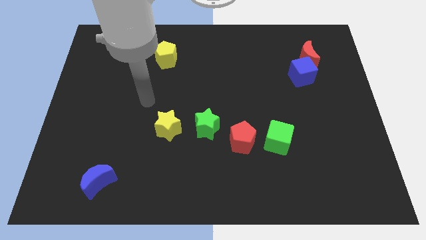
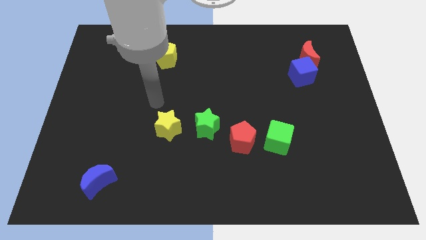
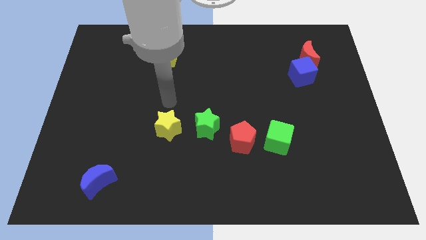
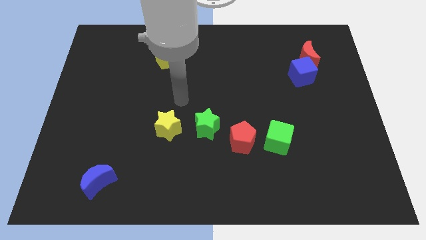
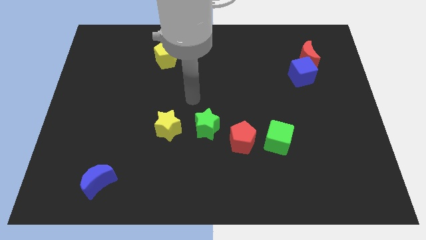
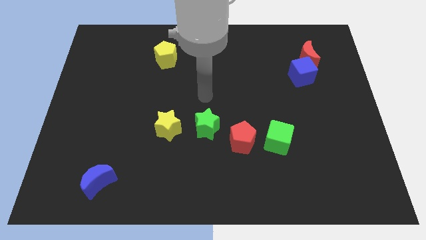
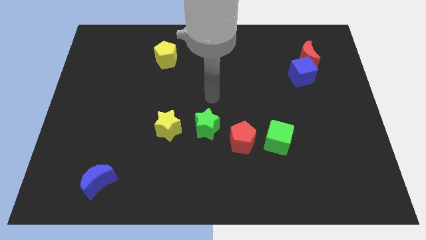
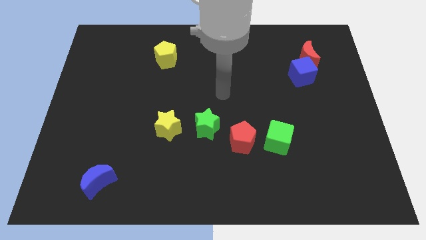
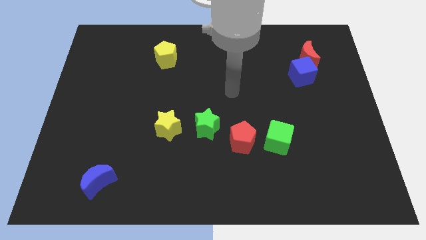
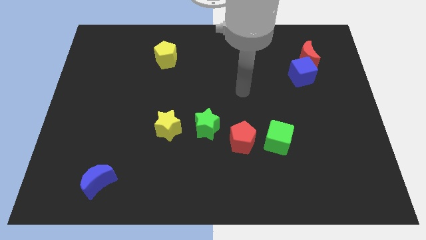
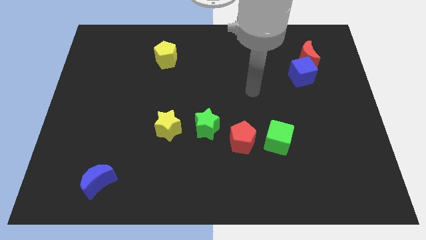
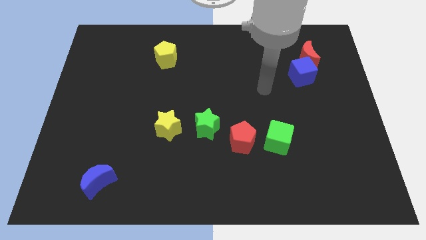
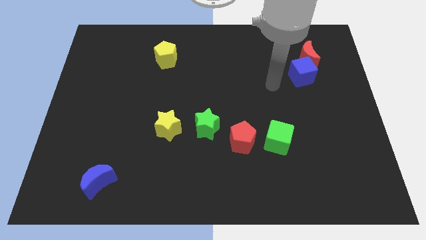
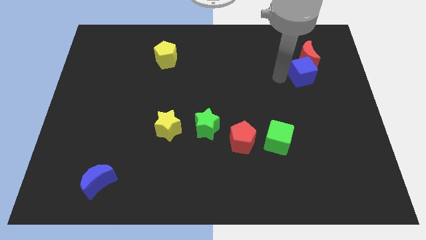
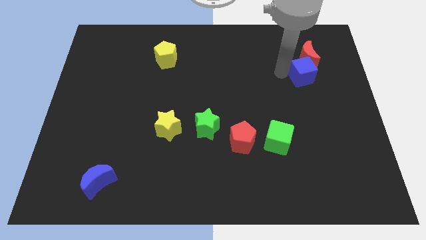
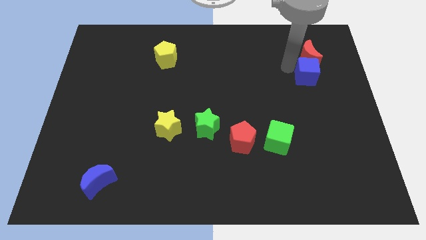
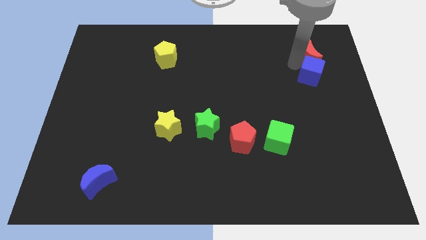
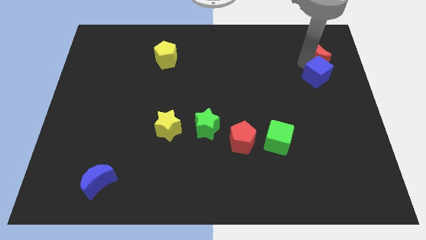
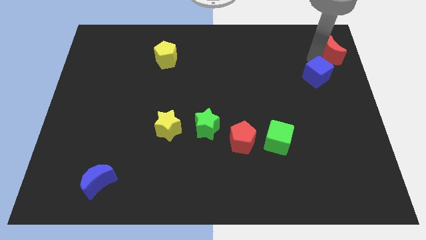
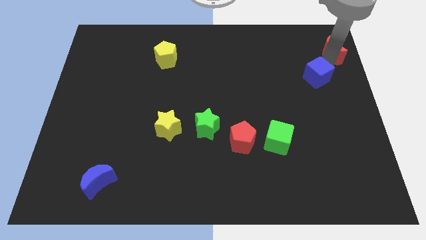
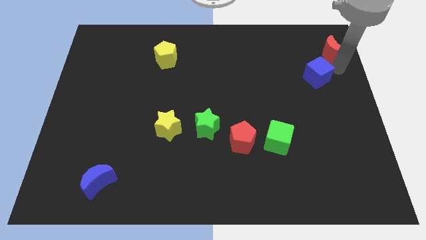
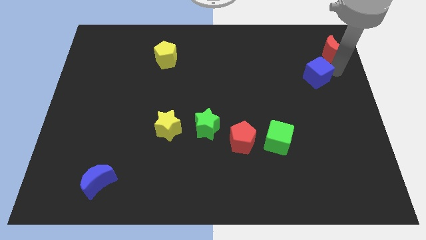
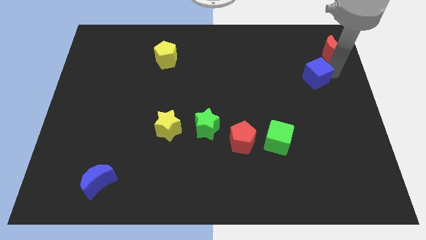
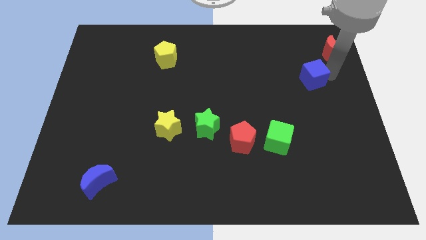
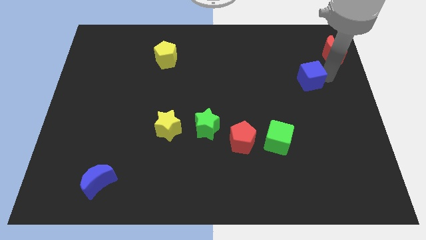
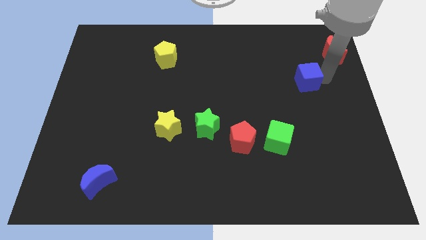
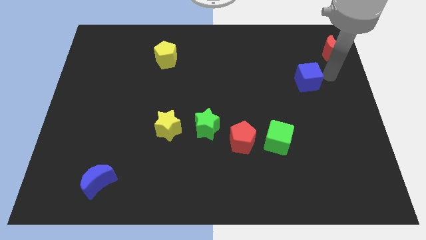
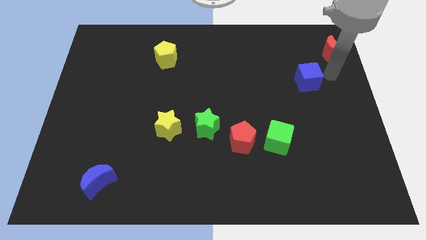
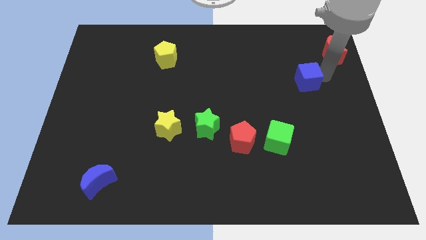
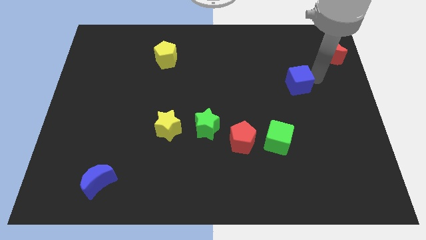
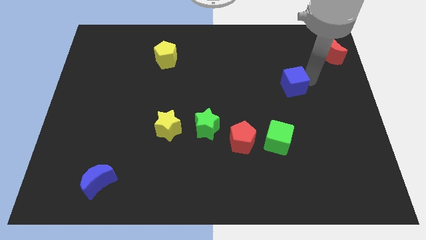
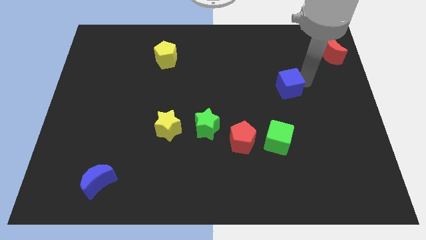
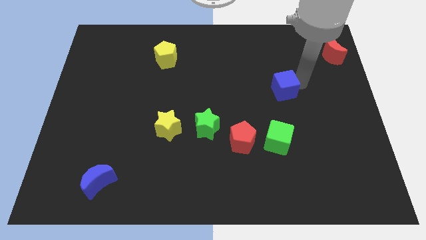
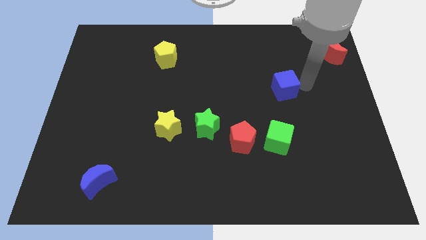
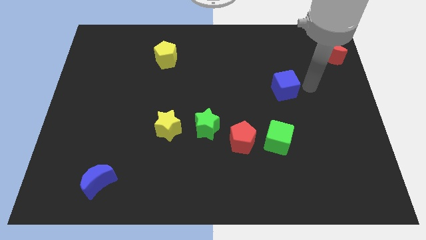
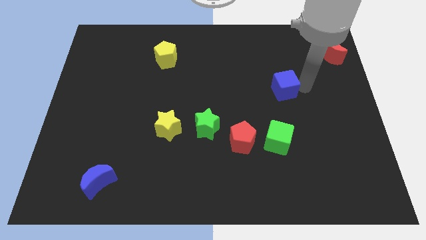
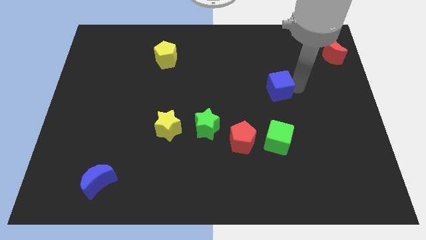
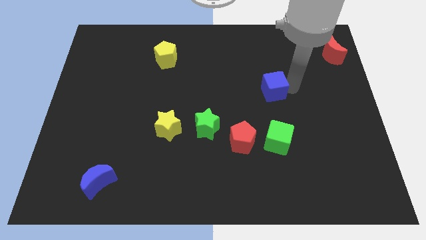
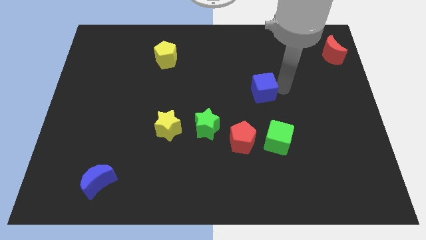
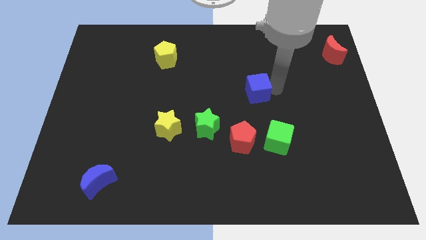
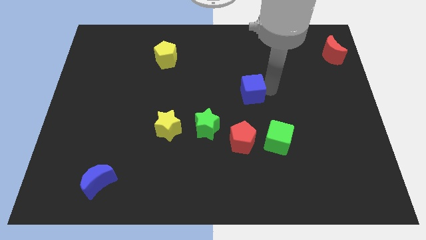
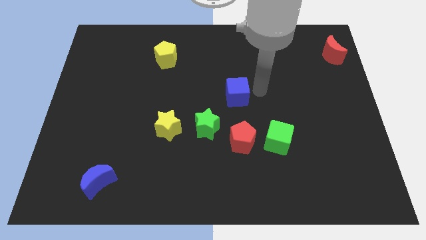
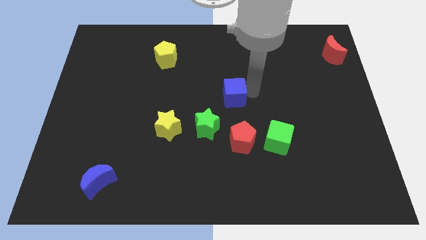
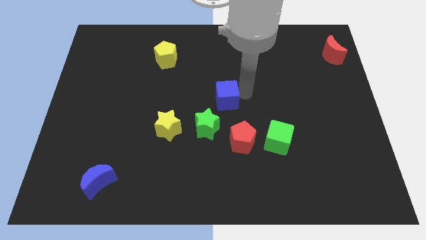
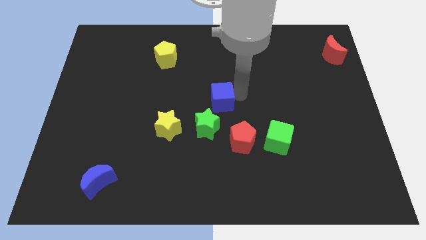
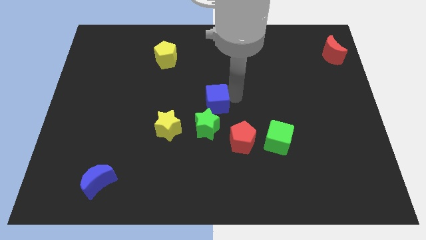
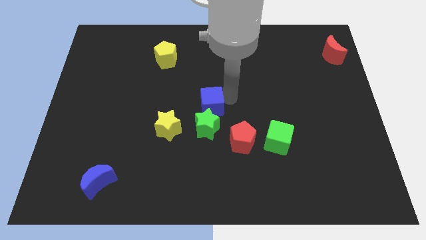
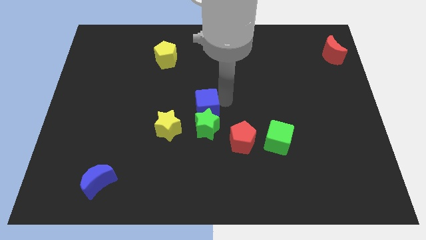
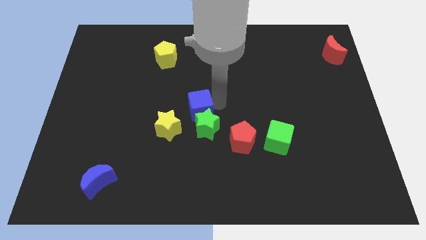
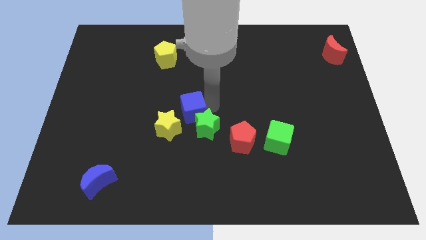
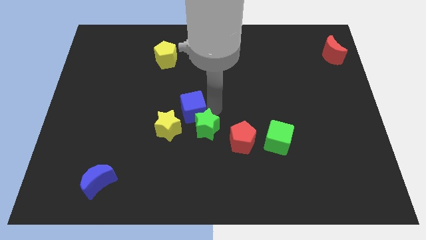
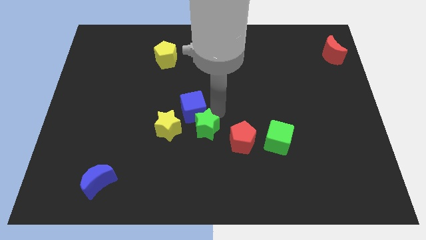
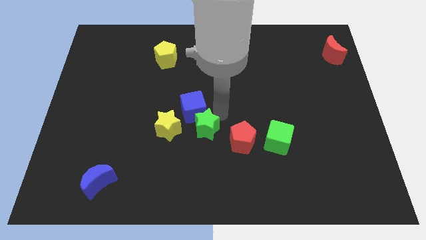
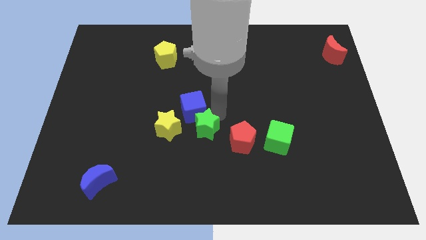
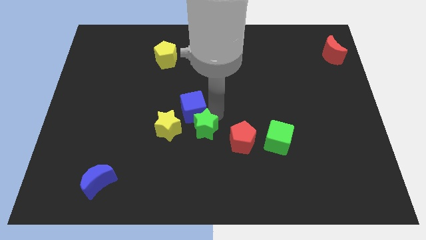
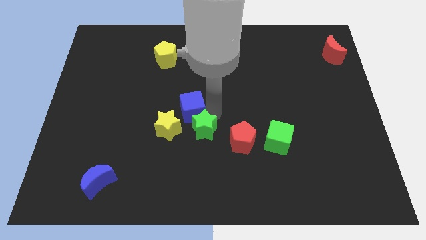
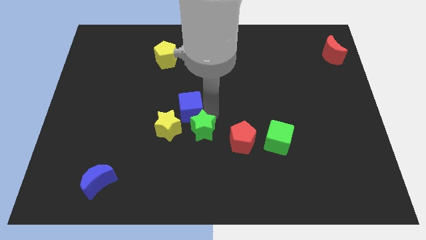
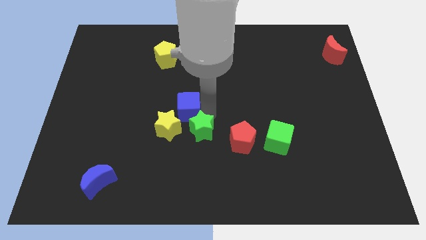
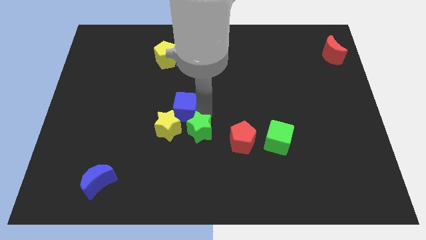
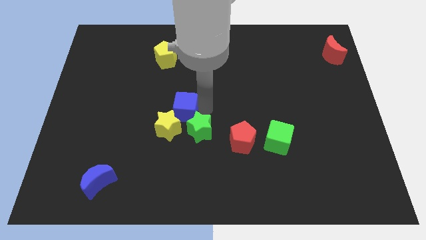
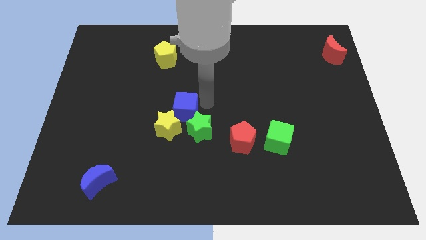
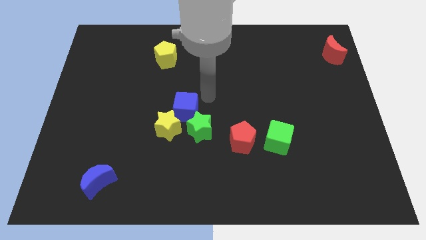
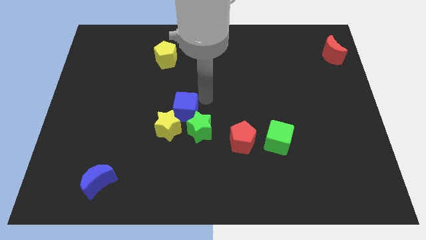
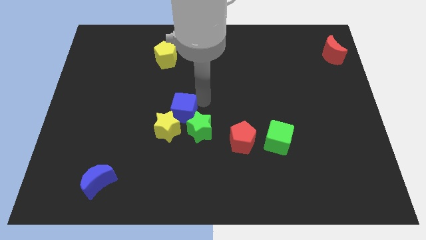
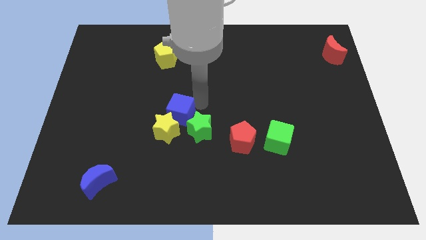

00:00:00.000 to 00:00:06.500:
push the blue cube to the left of the green star
